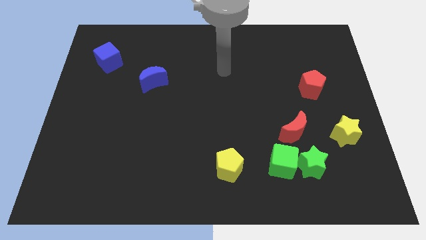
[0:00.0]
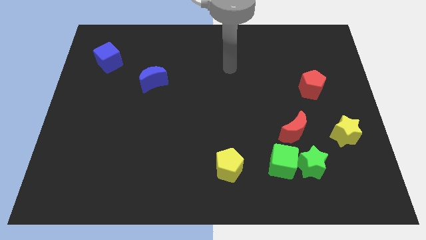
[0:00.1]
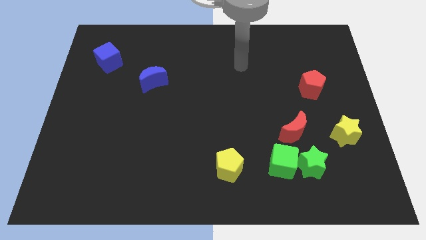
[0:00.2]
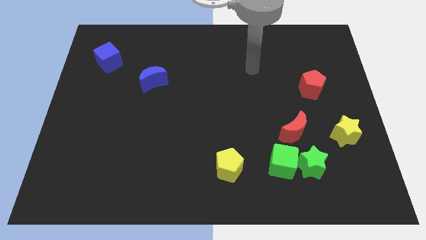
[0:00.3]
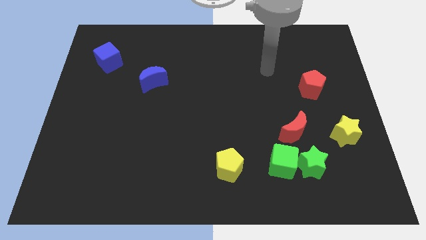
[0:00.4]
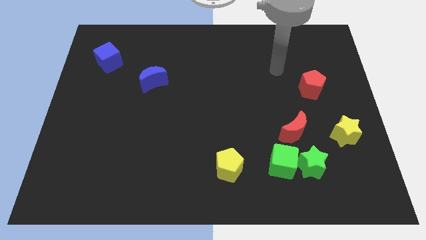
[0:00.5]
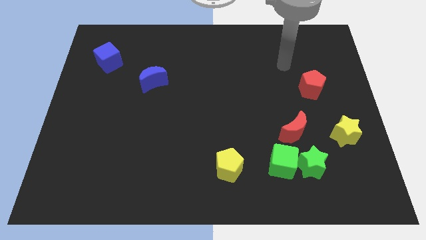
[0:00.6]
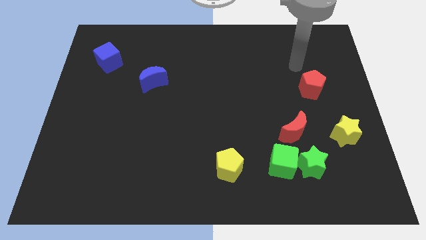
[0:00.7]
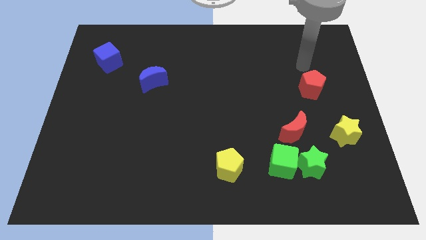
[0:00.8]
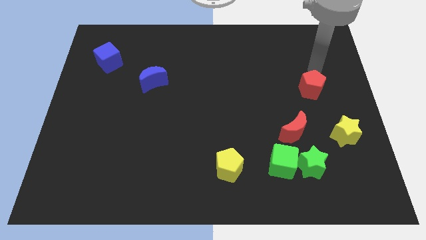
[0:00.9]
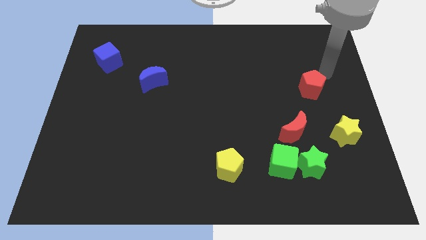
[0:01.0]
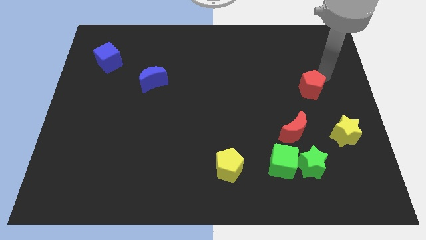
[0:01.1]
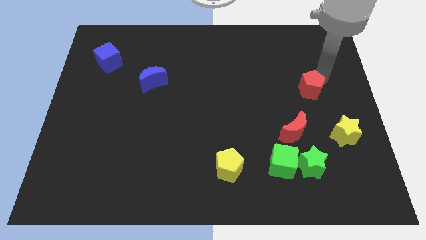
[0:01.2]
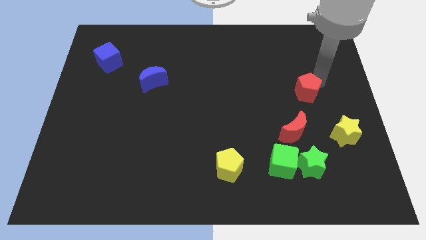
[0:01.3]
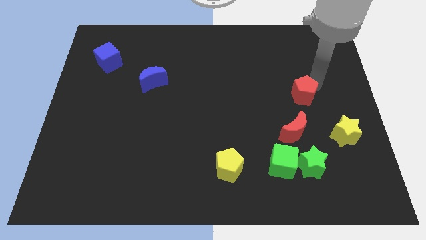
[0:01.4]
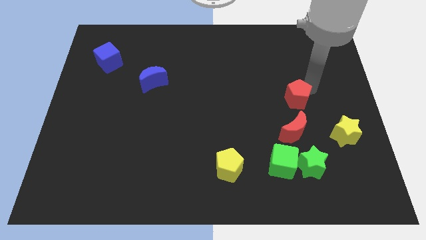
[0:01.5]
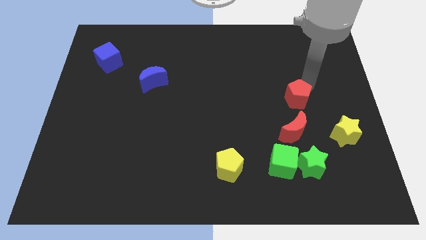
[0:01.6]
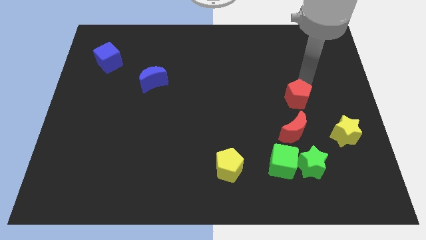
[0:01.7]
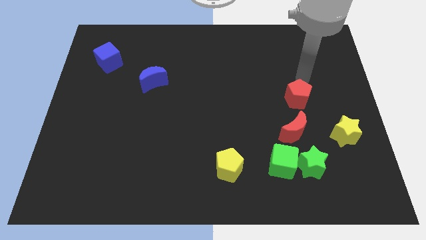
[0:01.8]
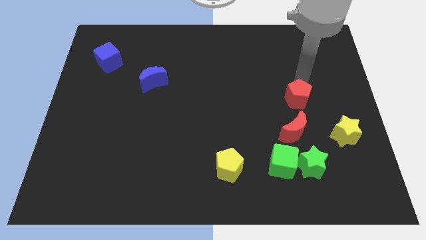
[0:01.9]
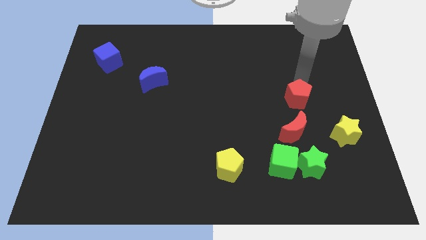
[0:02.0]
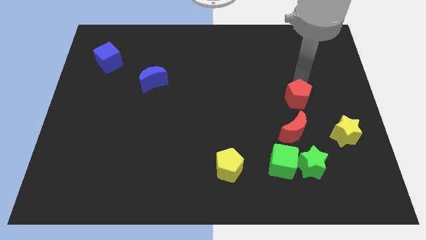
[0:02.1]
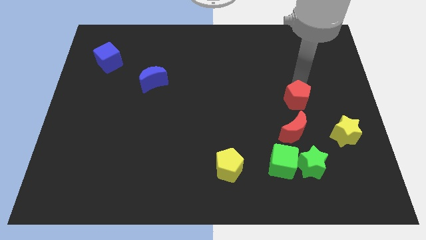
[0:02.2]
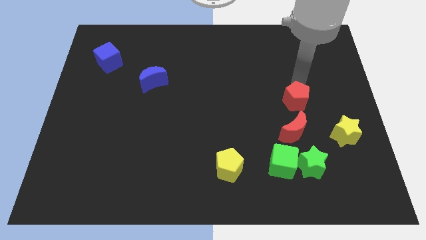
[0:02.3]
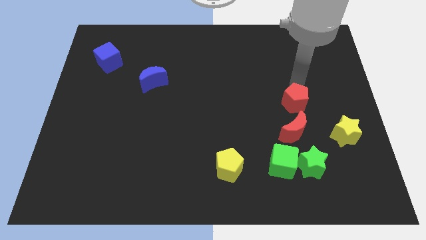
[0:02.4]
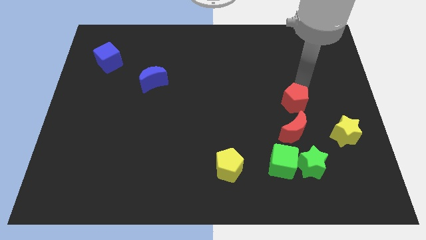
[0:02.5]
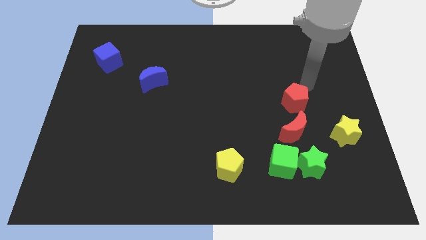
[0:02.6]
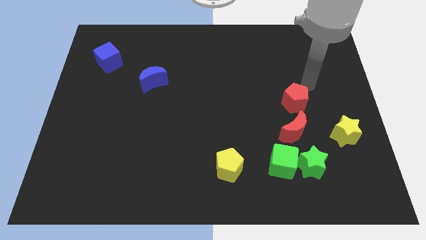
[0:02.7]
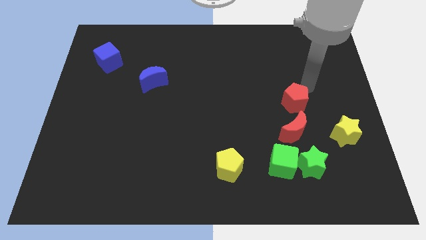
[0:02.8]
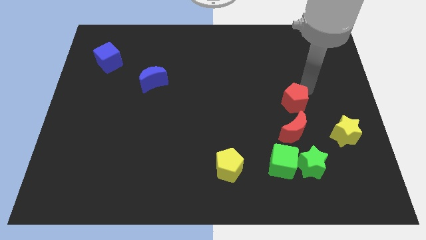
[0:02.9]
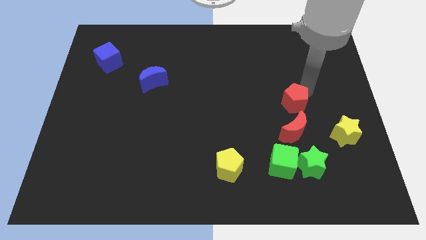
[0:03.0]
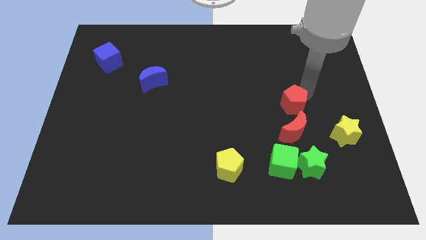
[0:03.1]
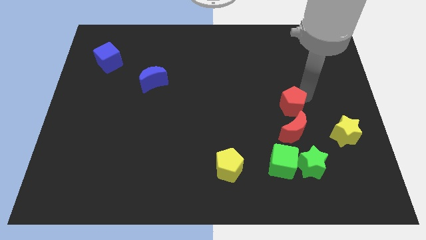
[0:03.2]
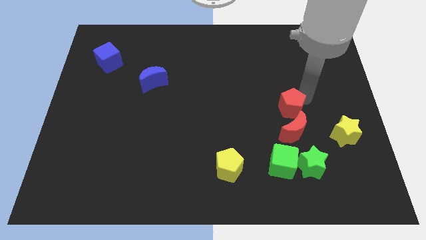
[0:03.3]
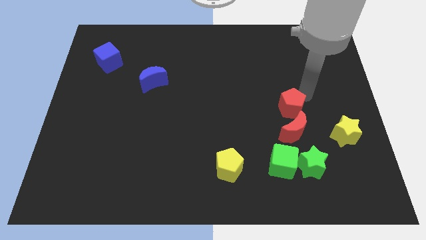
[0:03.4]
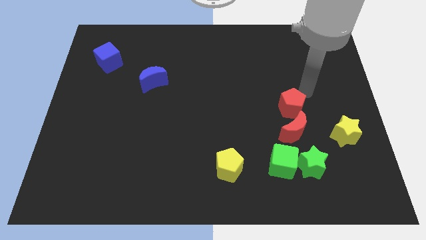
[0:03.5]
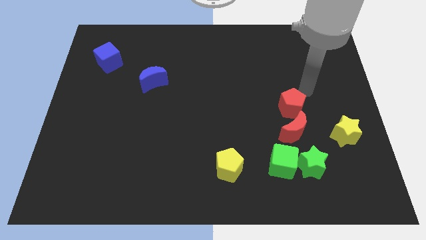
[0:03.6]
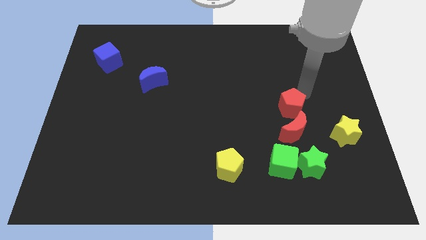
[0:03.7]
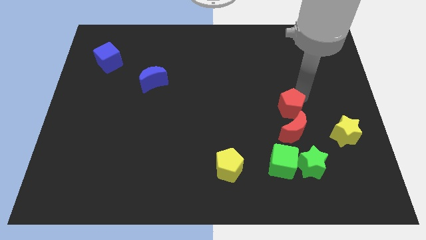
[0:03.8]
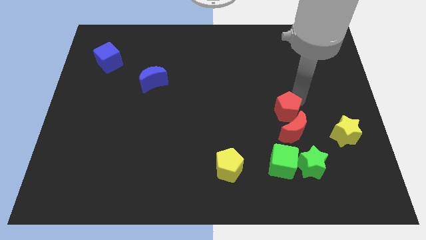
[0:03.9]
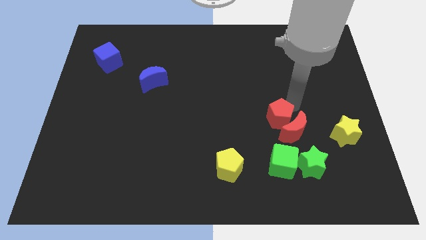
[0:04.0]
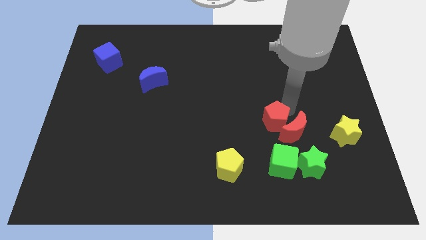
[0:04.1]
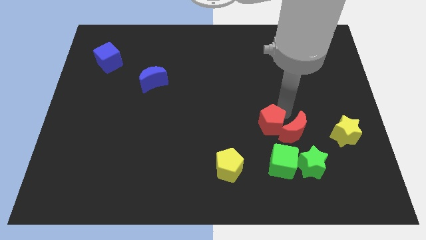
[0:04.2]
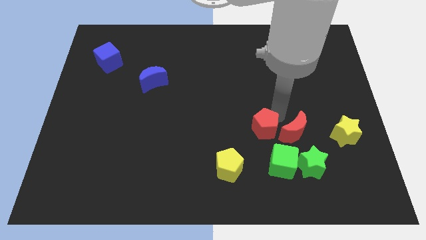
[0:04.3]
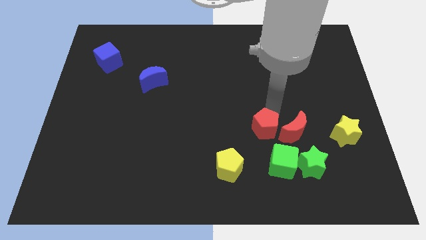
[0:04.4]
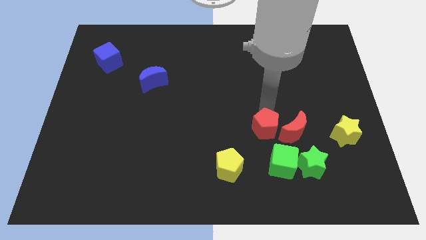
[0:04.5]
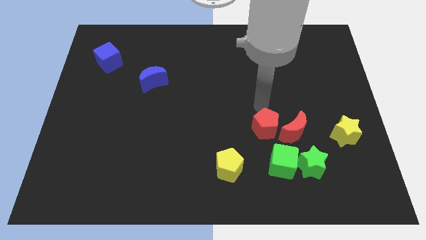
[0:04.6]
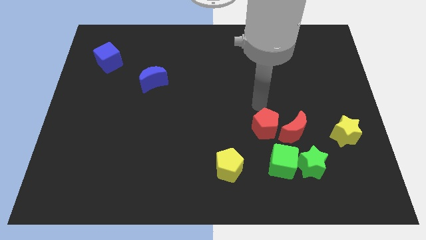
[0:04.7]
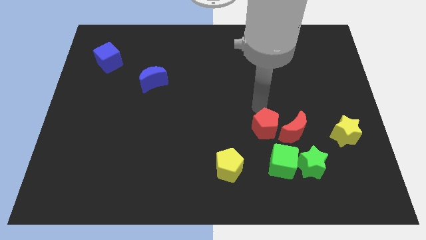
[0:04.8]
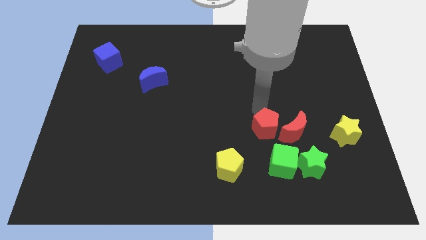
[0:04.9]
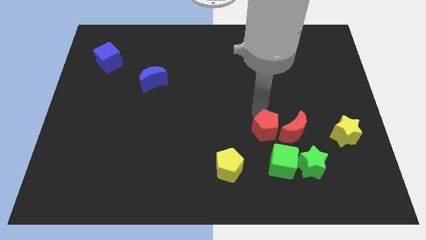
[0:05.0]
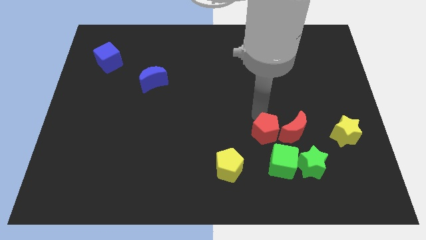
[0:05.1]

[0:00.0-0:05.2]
put the red pentagon to the bottom left side of the red moon

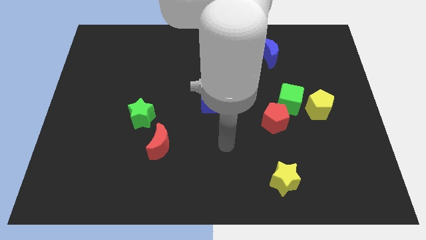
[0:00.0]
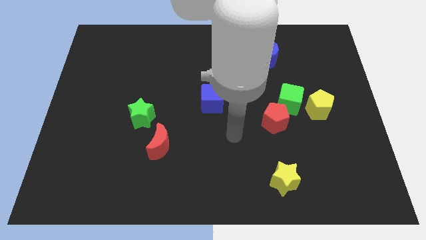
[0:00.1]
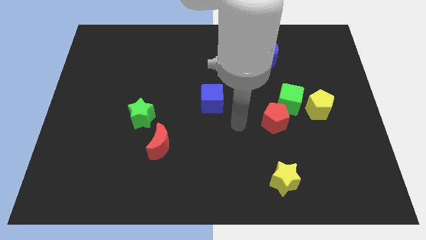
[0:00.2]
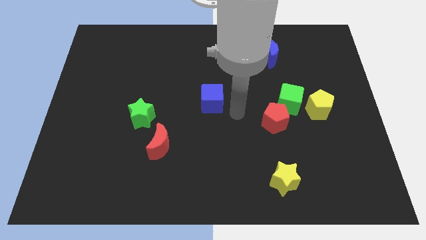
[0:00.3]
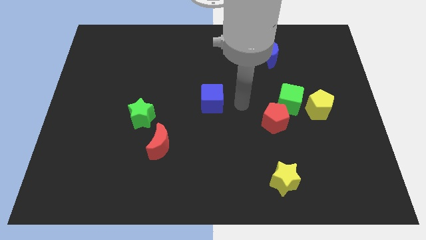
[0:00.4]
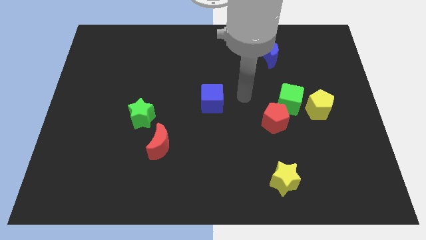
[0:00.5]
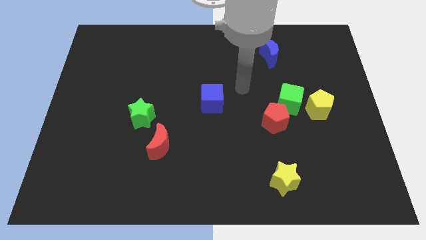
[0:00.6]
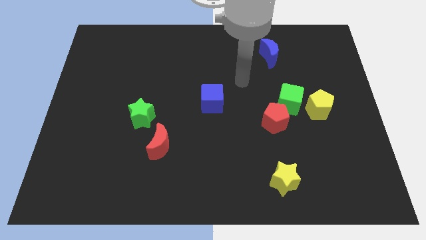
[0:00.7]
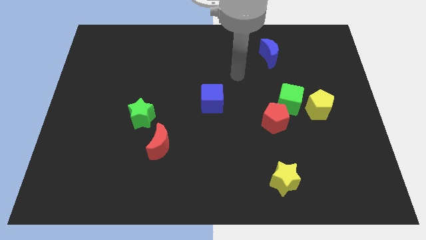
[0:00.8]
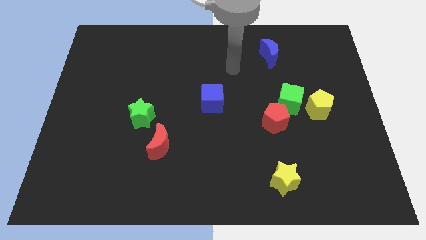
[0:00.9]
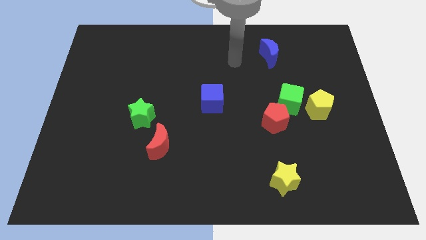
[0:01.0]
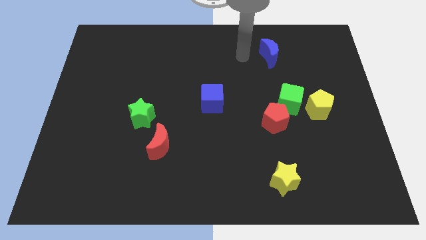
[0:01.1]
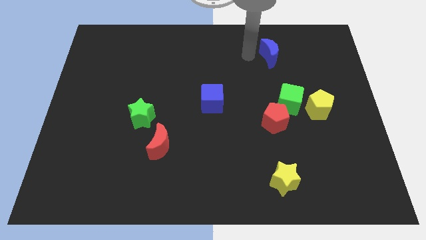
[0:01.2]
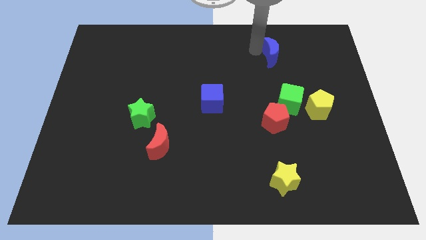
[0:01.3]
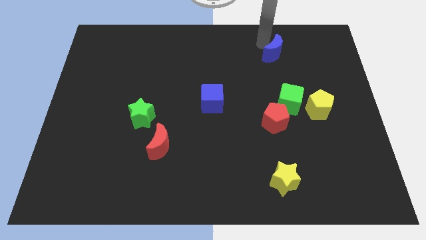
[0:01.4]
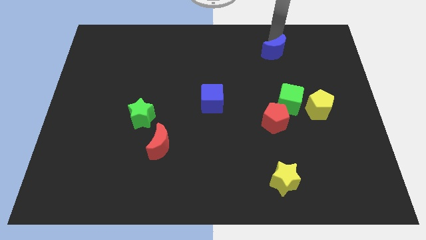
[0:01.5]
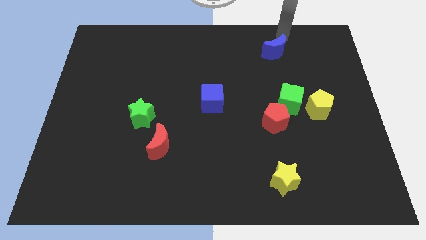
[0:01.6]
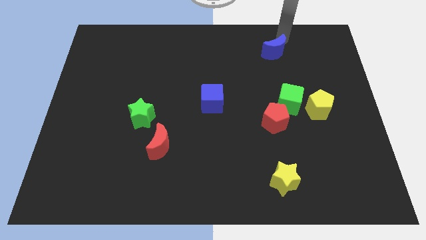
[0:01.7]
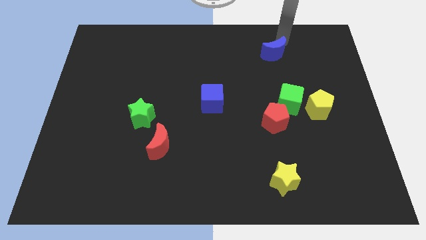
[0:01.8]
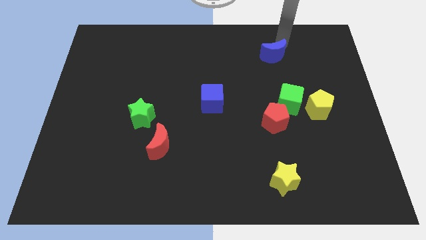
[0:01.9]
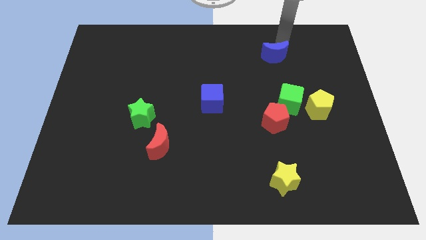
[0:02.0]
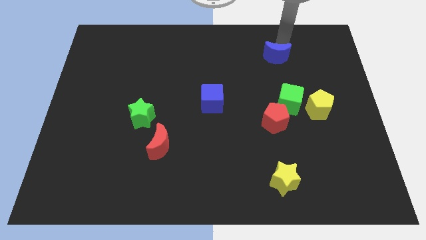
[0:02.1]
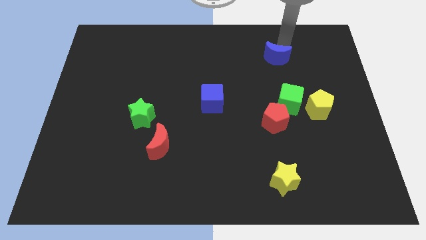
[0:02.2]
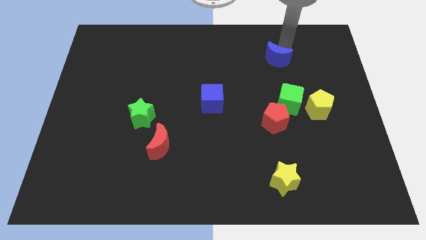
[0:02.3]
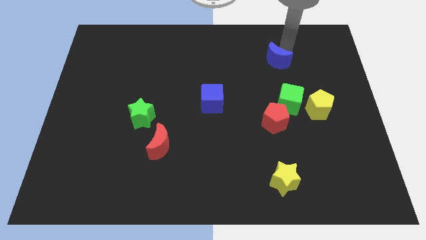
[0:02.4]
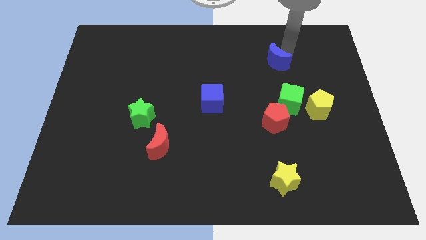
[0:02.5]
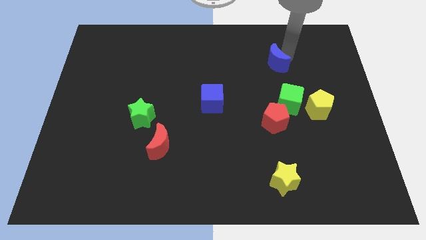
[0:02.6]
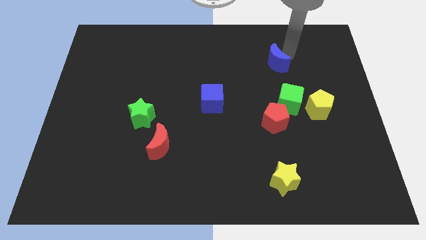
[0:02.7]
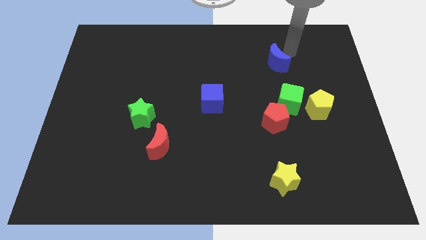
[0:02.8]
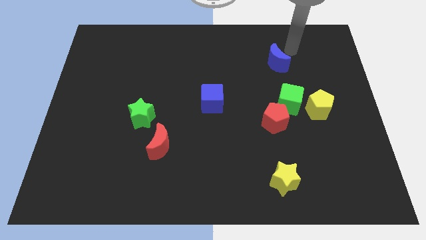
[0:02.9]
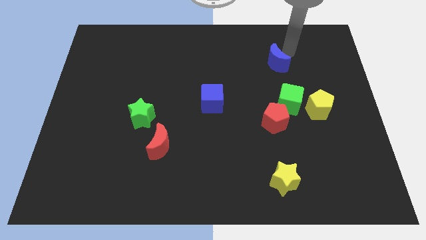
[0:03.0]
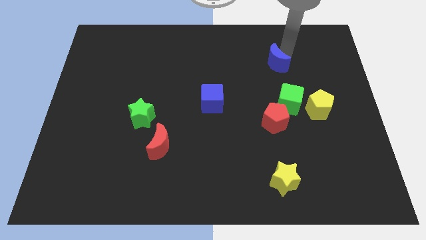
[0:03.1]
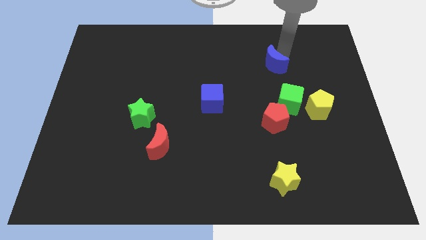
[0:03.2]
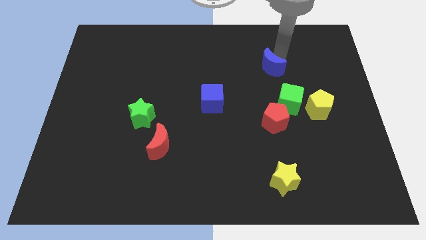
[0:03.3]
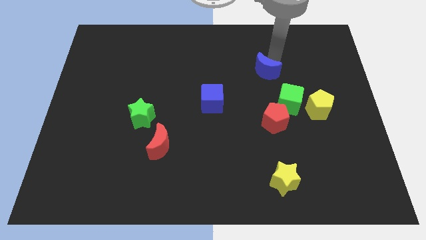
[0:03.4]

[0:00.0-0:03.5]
slide the blue moon to the top of the red pentagon
